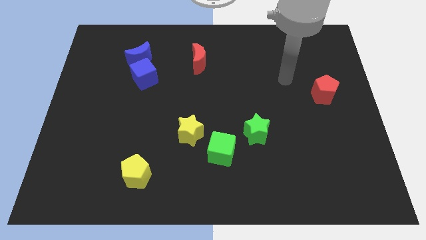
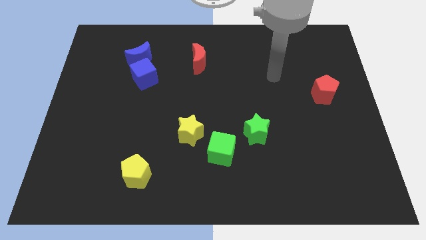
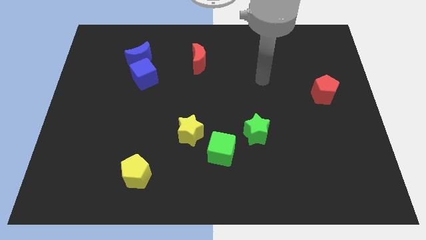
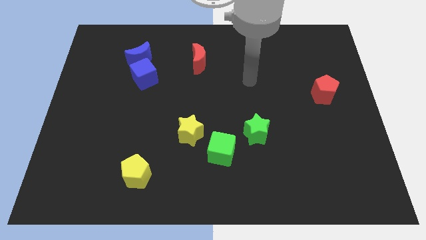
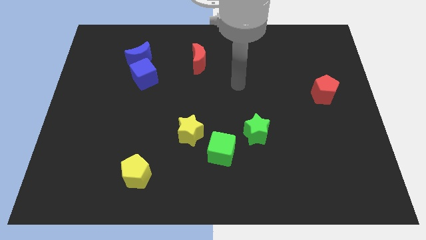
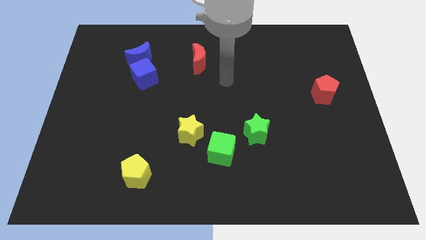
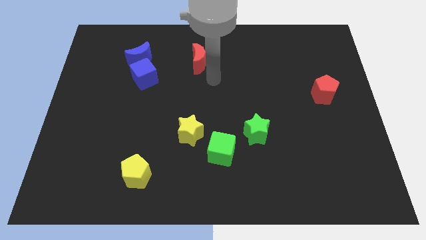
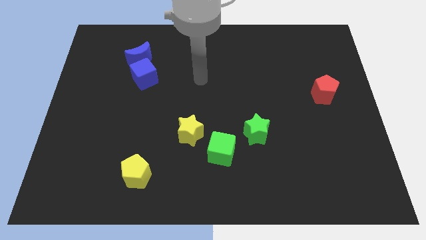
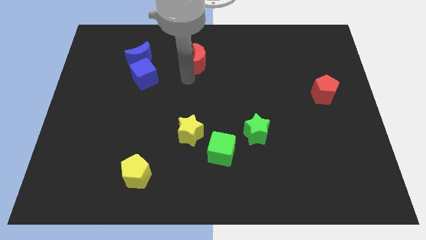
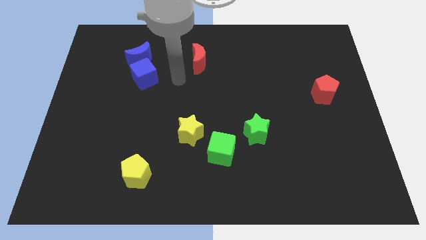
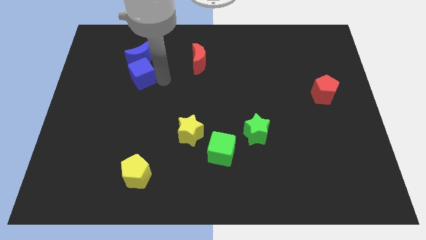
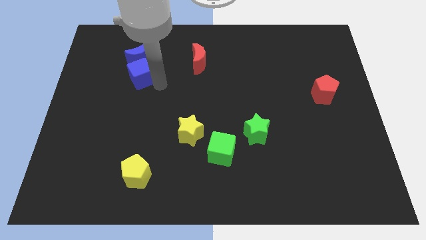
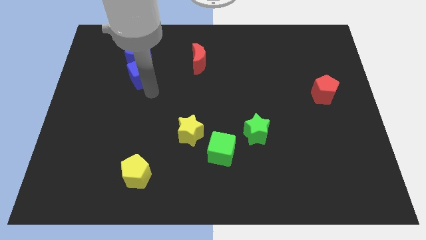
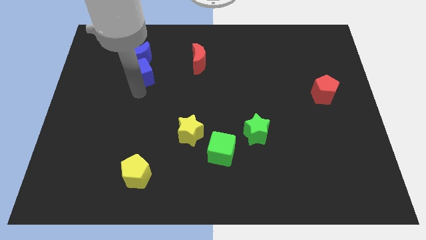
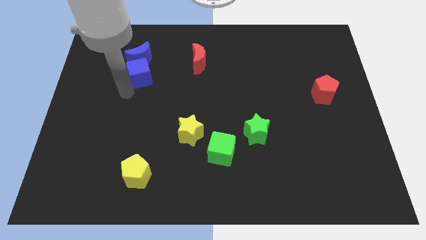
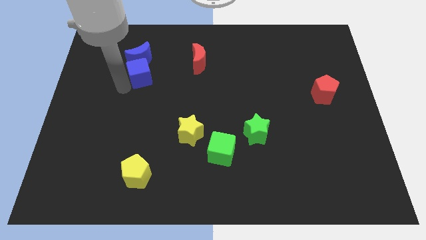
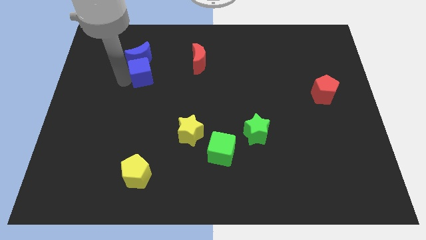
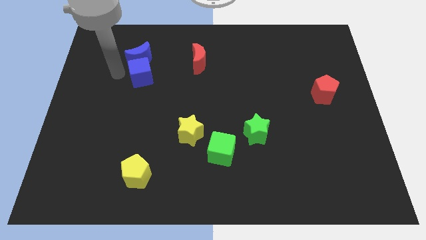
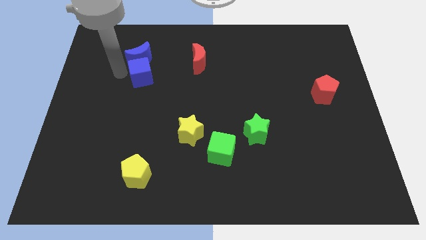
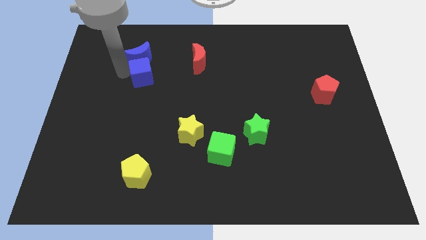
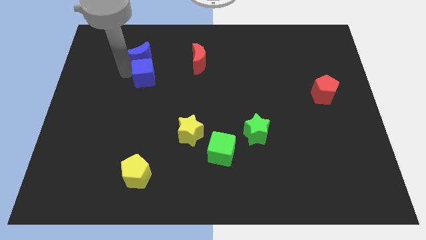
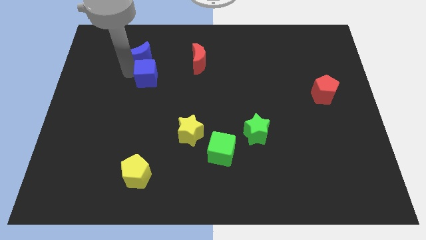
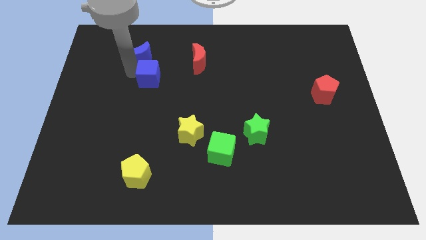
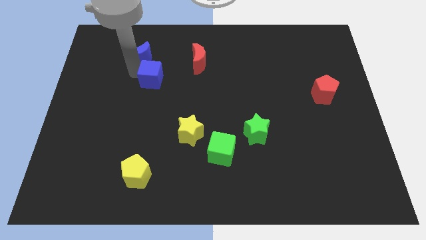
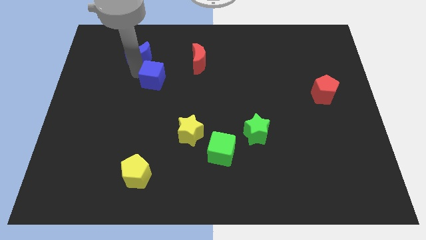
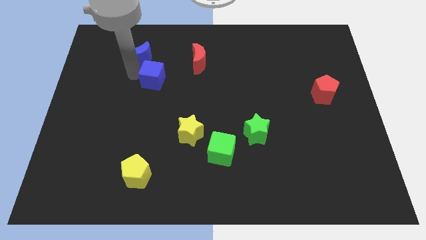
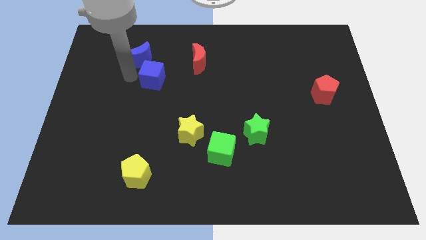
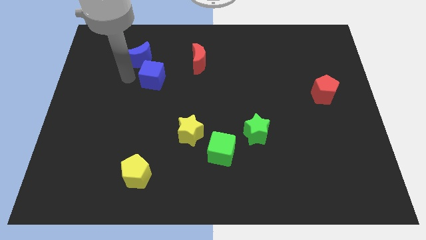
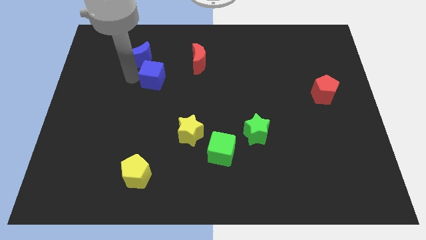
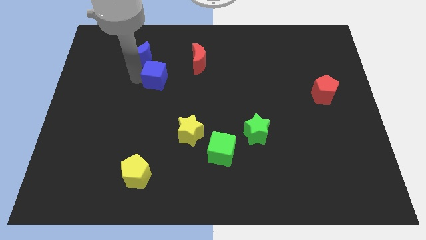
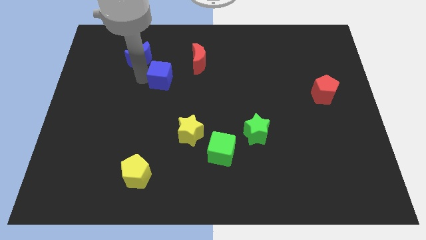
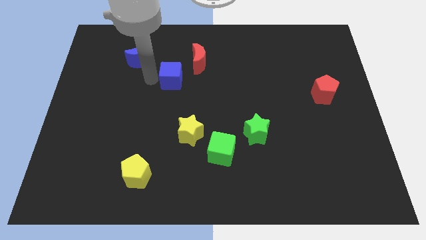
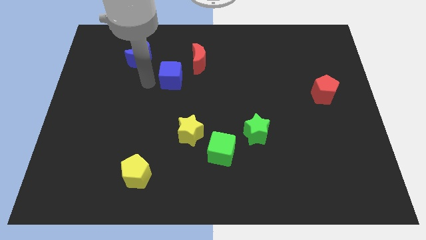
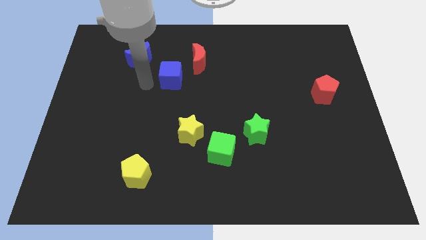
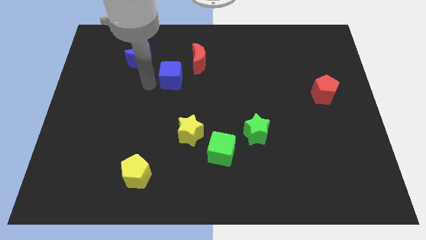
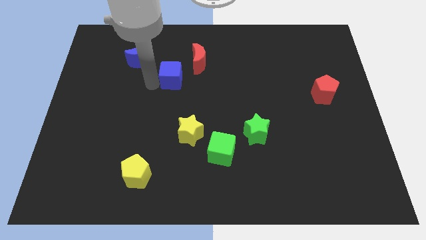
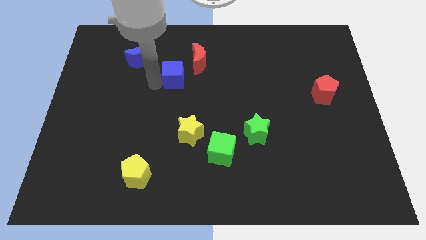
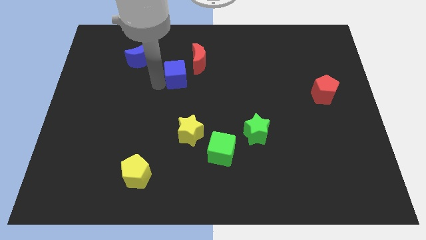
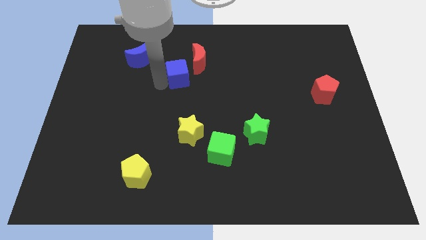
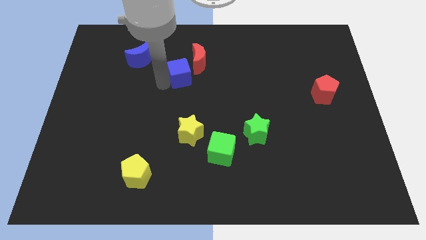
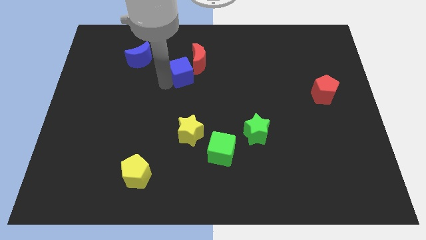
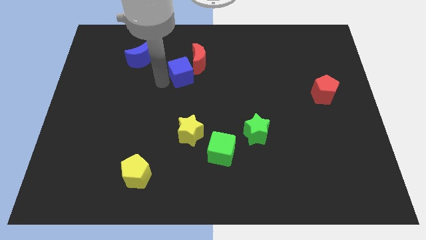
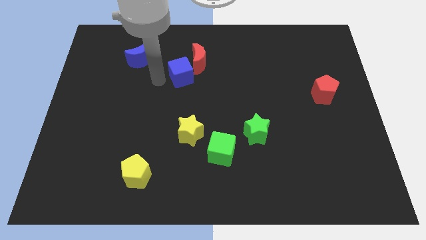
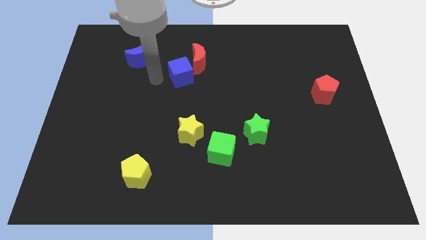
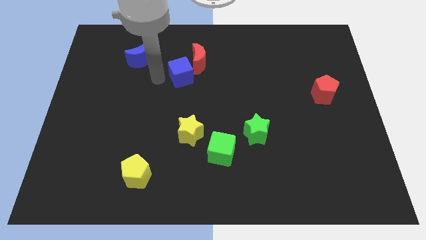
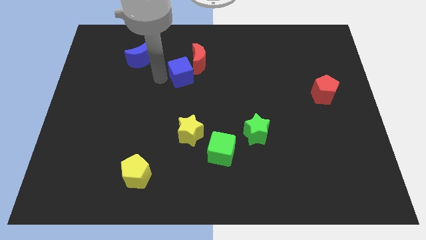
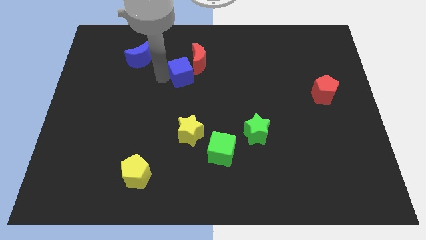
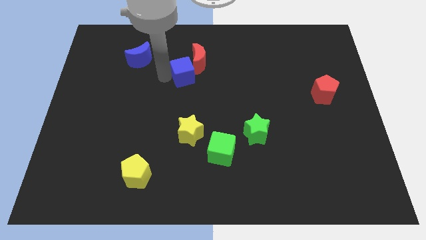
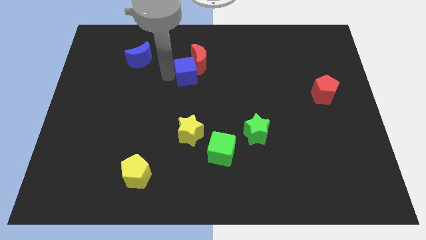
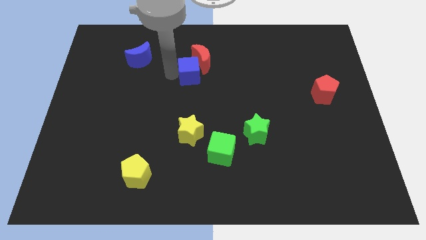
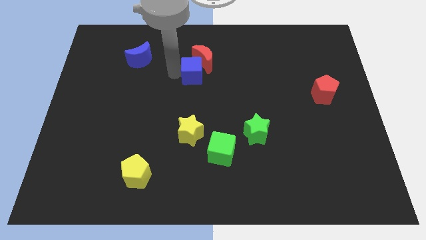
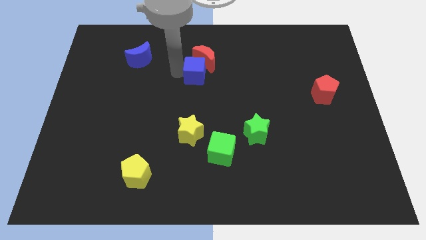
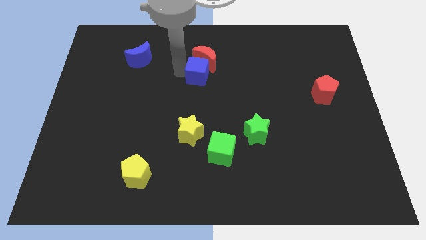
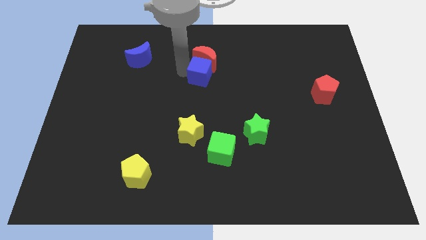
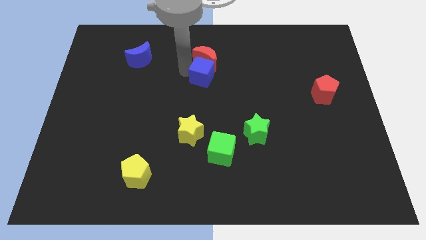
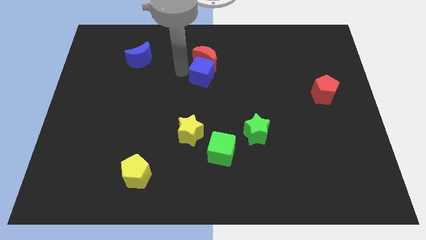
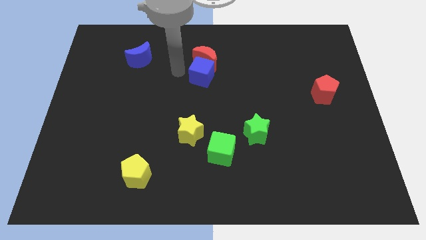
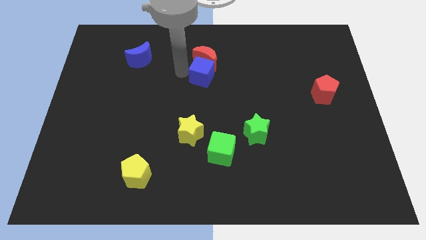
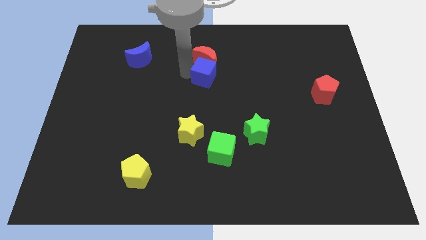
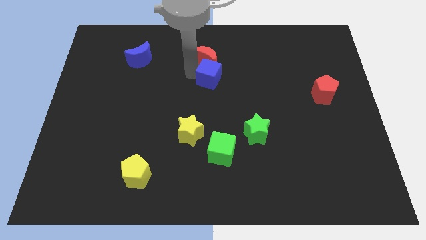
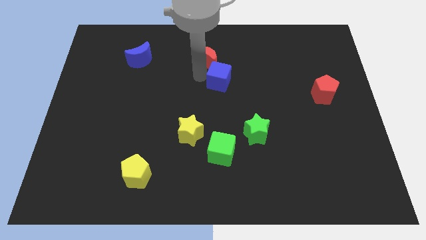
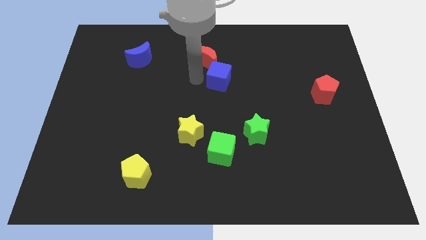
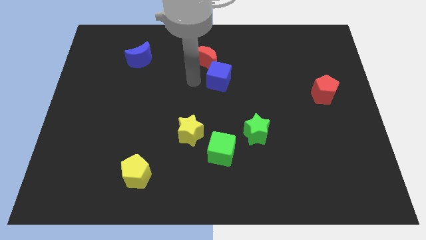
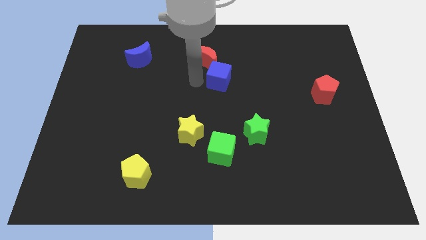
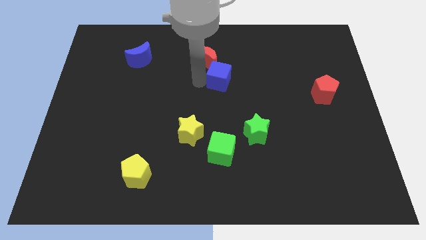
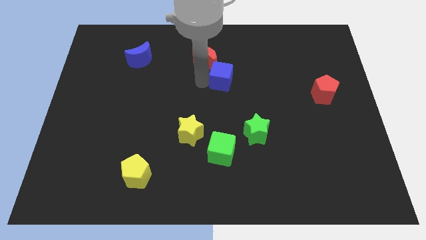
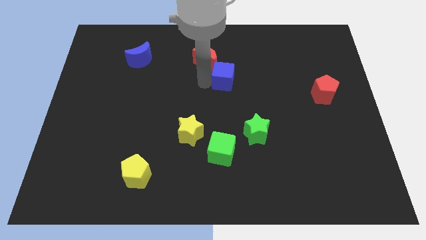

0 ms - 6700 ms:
slide the blue cube right

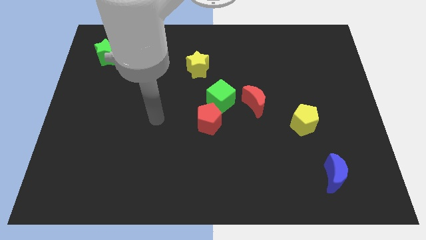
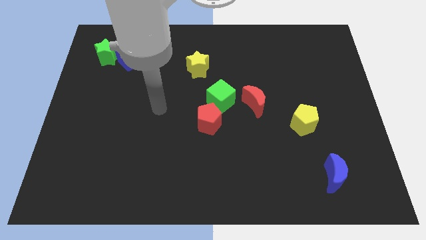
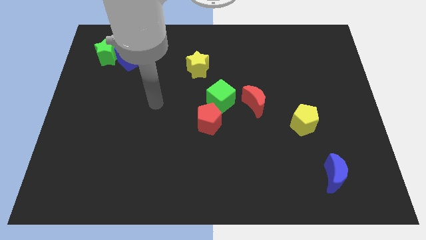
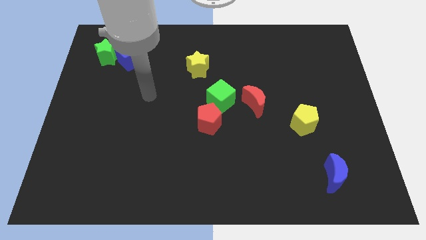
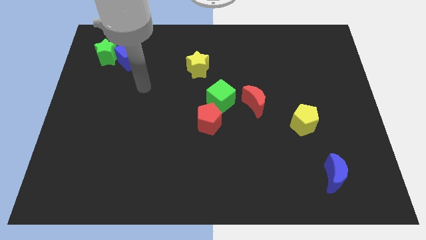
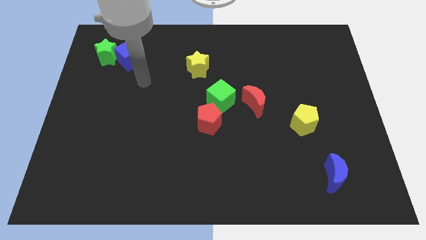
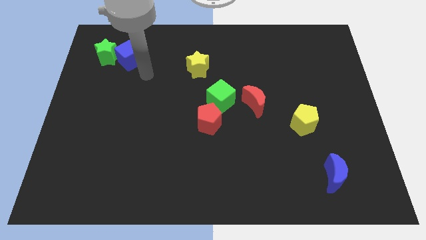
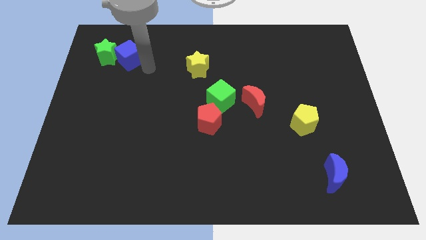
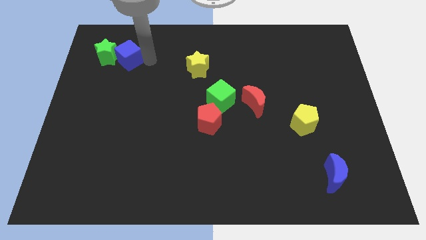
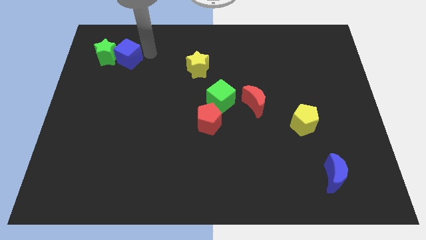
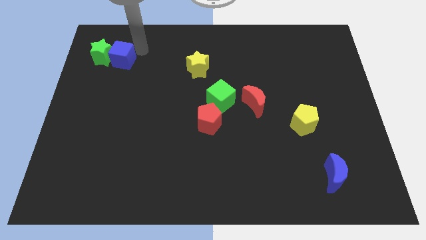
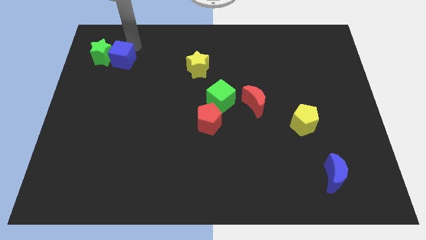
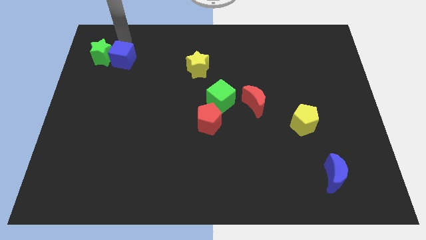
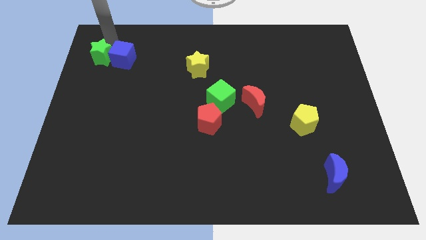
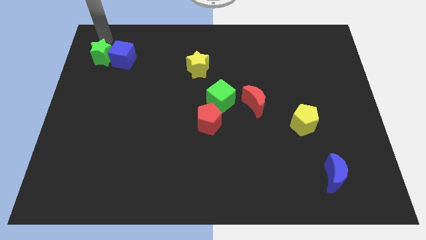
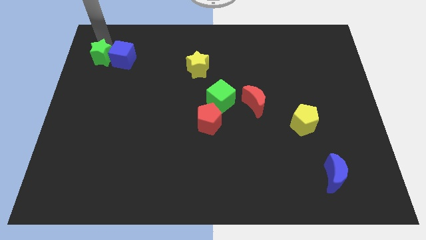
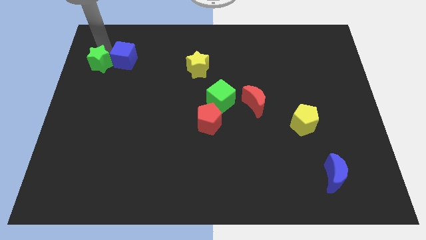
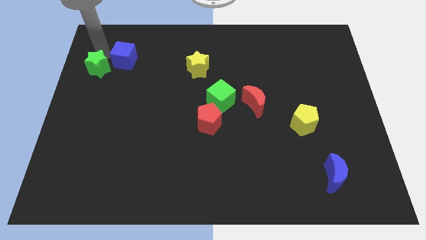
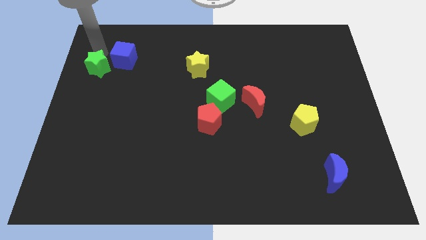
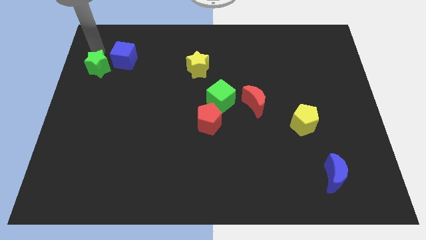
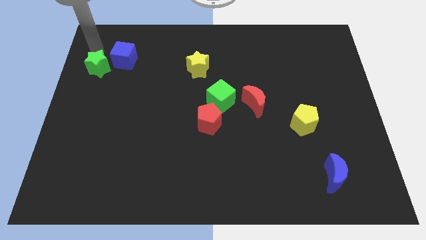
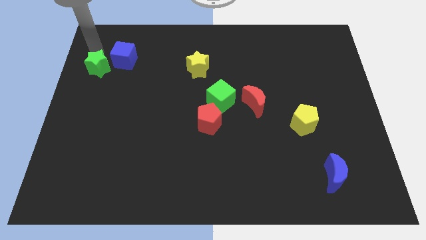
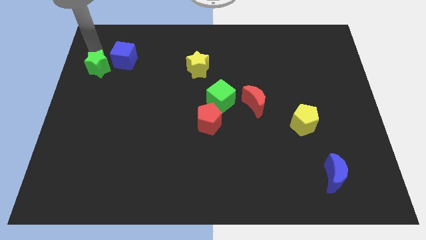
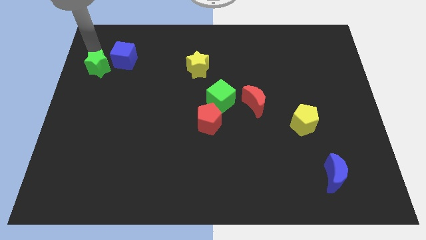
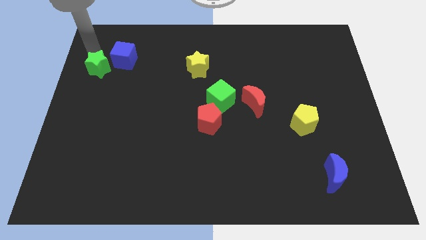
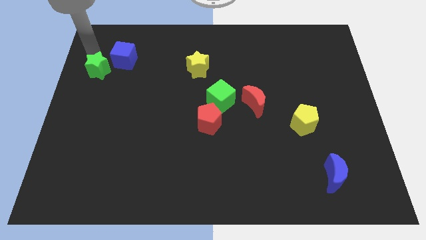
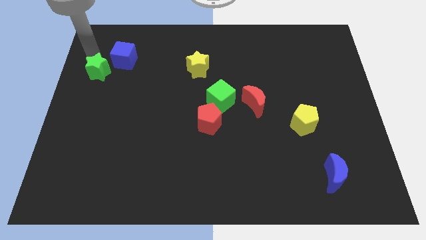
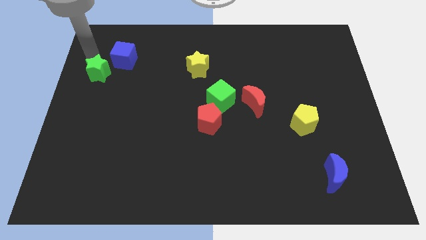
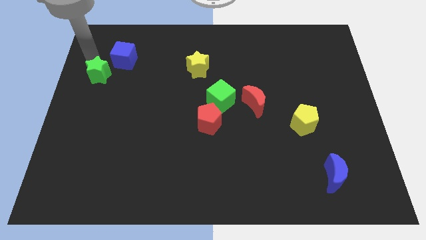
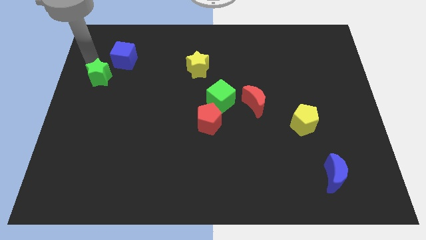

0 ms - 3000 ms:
slide the green star down somewhat
